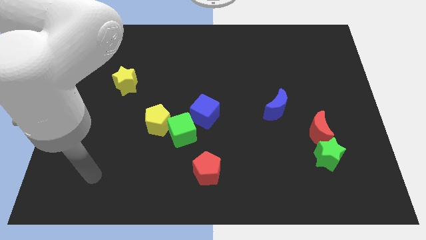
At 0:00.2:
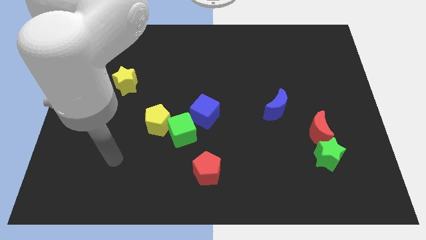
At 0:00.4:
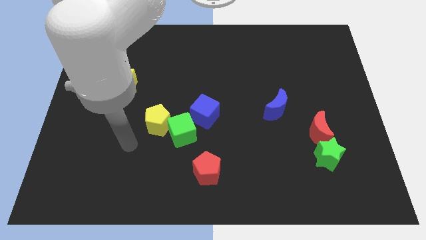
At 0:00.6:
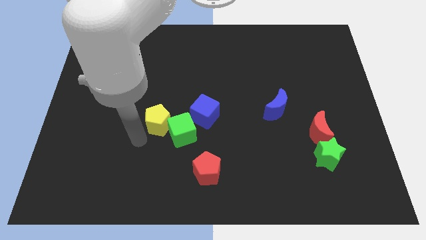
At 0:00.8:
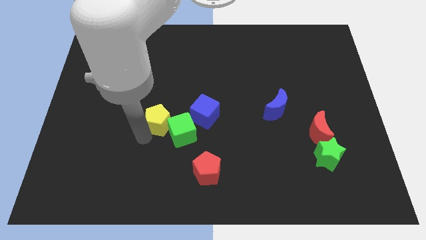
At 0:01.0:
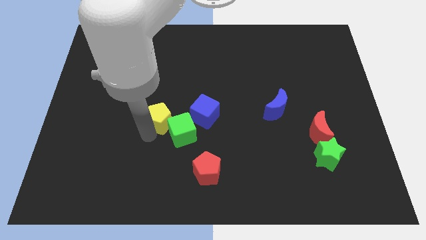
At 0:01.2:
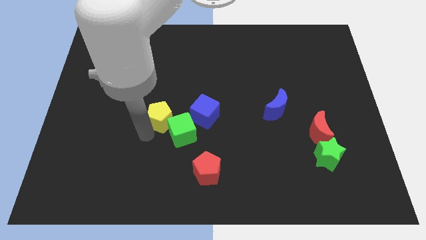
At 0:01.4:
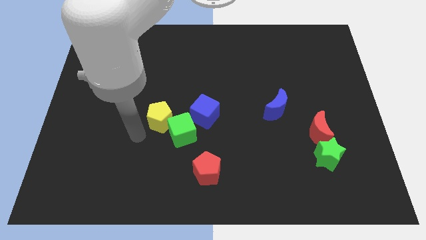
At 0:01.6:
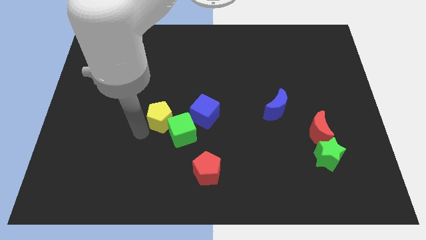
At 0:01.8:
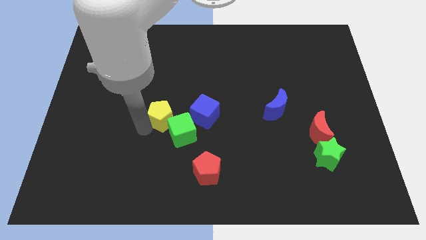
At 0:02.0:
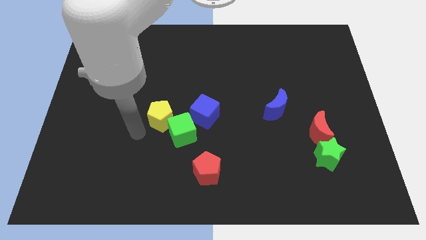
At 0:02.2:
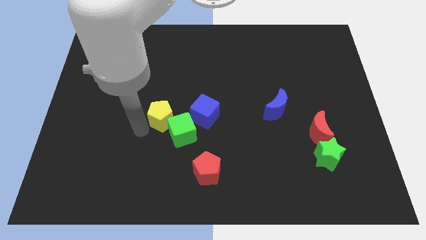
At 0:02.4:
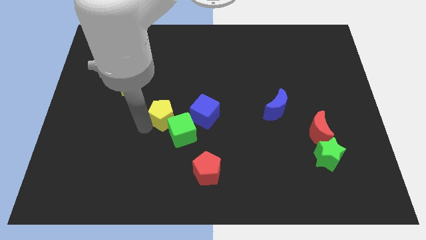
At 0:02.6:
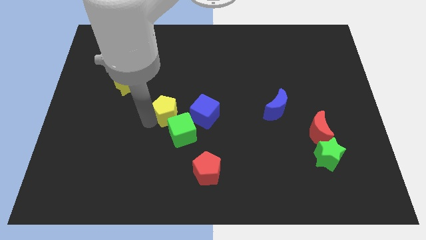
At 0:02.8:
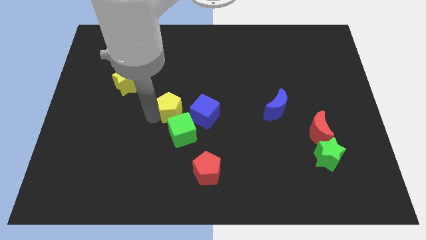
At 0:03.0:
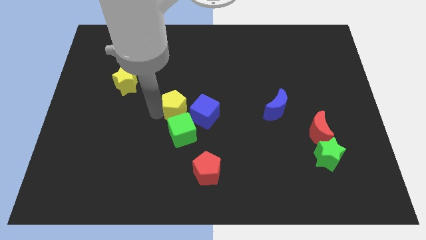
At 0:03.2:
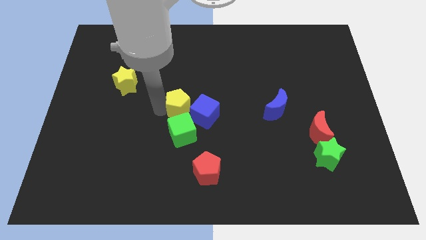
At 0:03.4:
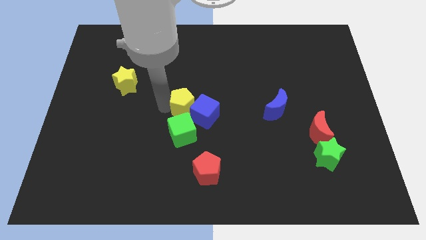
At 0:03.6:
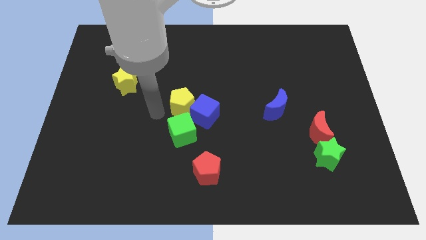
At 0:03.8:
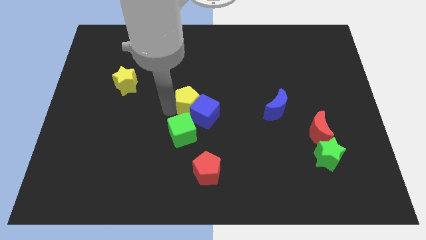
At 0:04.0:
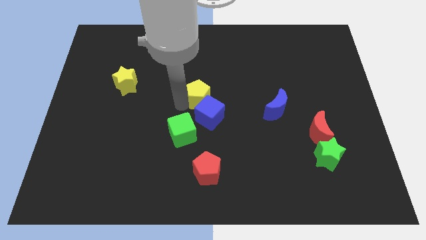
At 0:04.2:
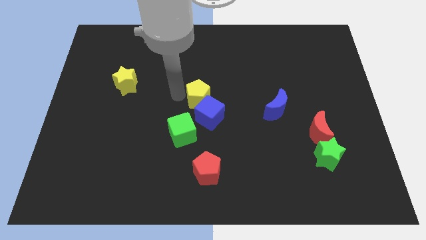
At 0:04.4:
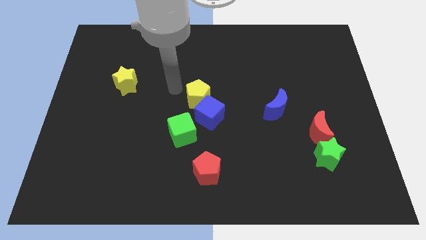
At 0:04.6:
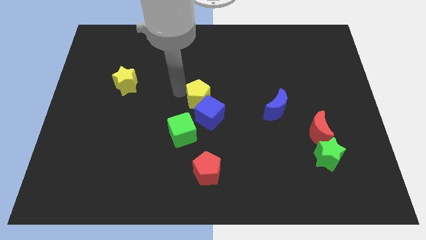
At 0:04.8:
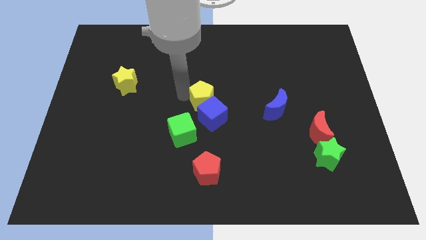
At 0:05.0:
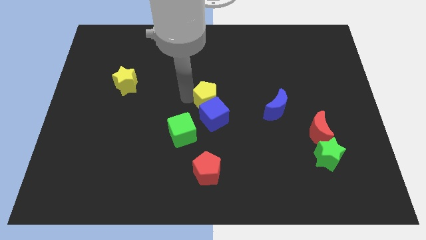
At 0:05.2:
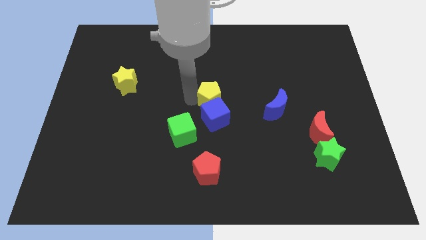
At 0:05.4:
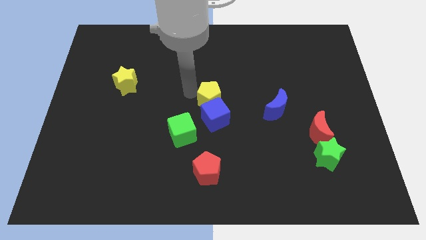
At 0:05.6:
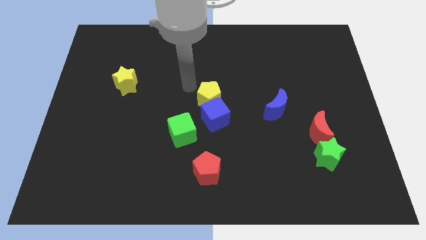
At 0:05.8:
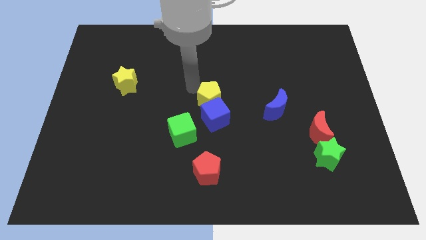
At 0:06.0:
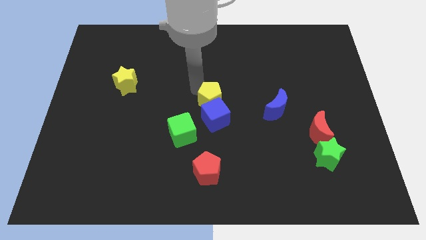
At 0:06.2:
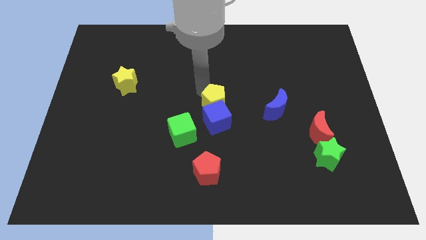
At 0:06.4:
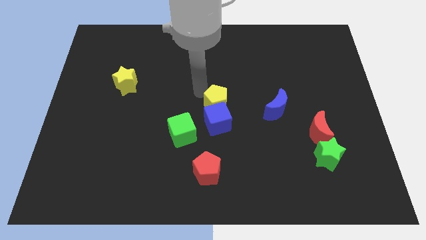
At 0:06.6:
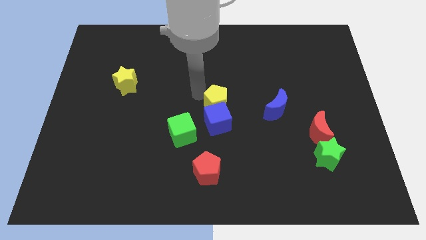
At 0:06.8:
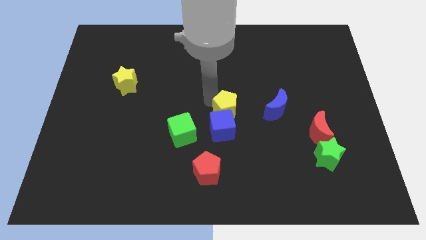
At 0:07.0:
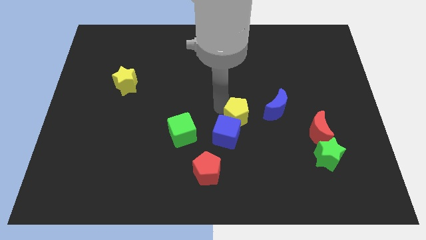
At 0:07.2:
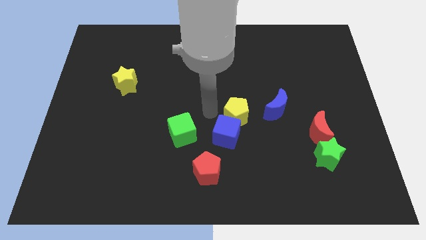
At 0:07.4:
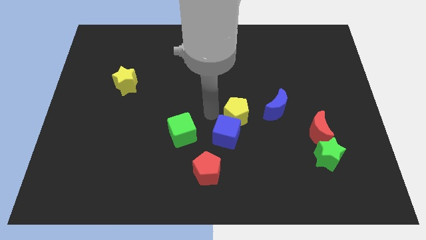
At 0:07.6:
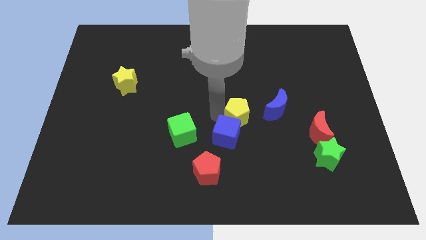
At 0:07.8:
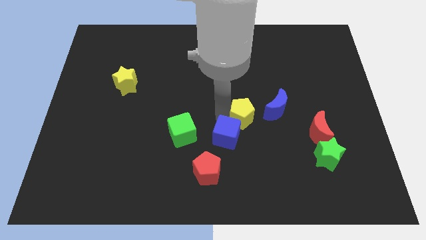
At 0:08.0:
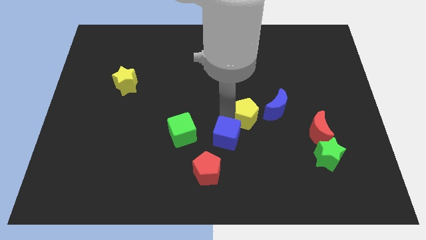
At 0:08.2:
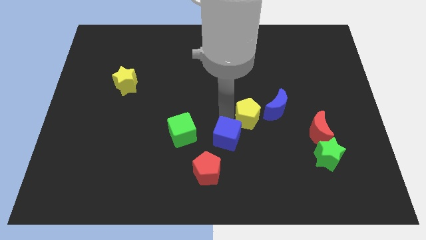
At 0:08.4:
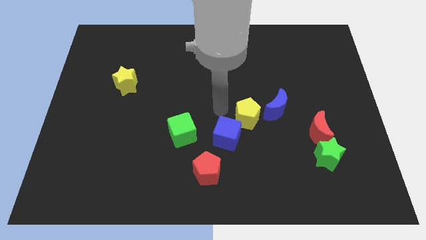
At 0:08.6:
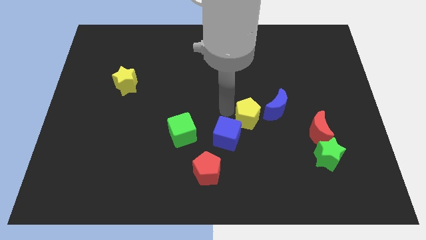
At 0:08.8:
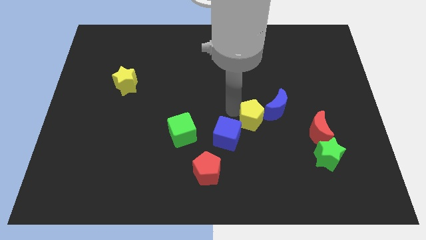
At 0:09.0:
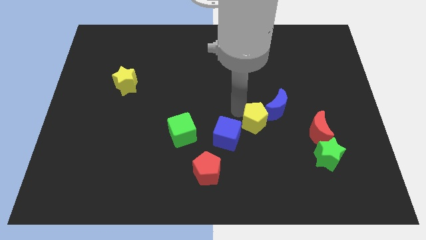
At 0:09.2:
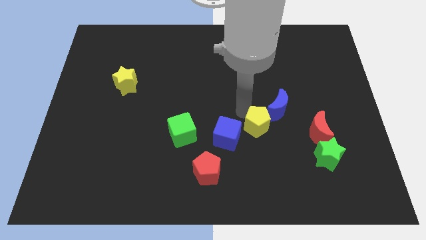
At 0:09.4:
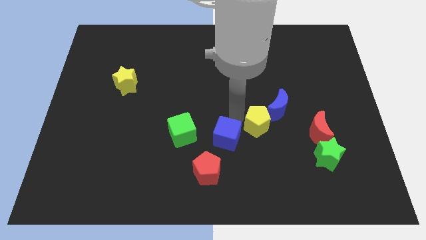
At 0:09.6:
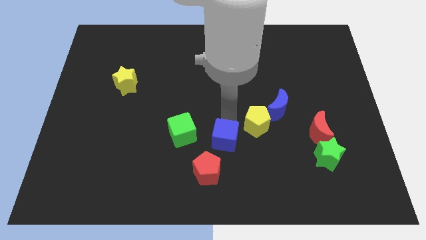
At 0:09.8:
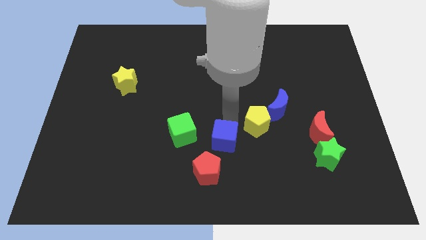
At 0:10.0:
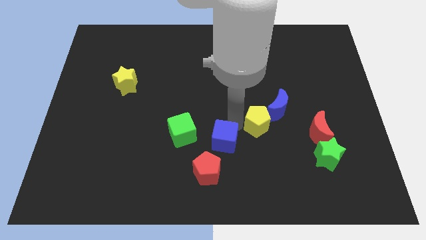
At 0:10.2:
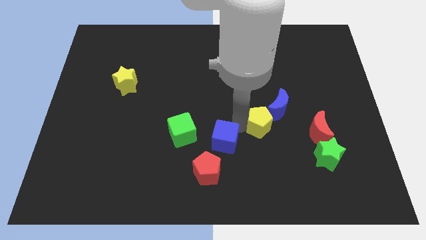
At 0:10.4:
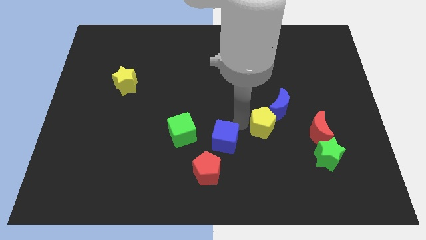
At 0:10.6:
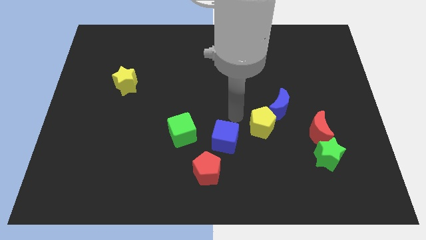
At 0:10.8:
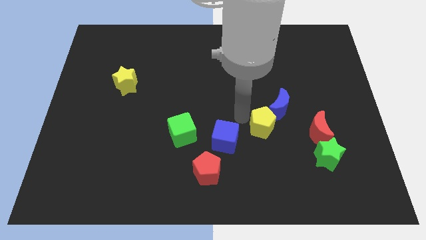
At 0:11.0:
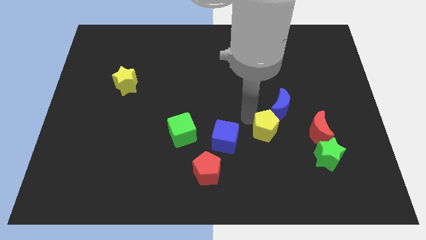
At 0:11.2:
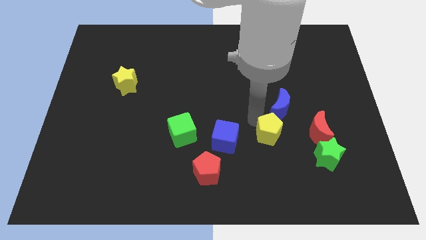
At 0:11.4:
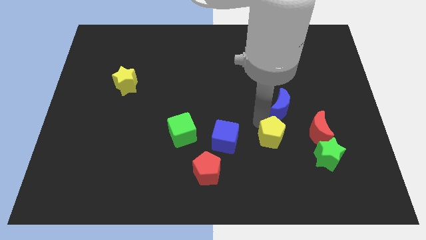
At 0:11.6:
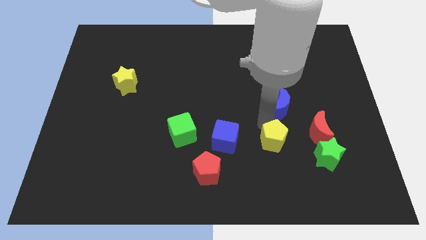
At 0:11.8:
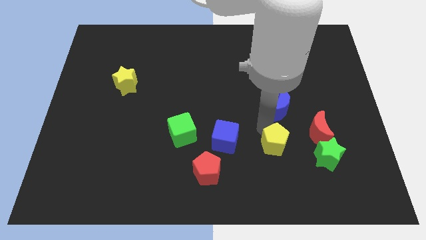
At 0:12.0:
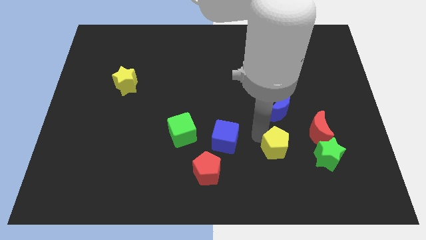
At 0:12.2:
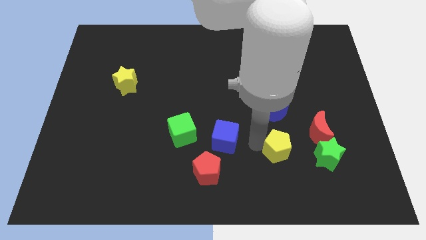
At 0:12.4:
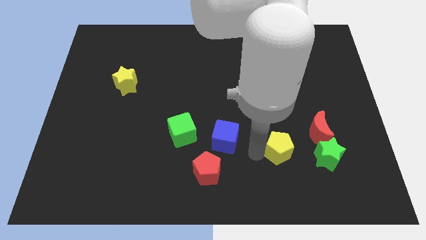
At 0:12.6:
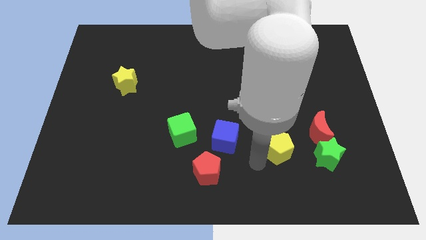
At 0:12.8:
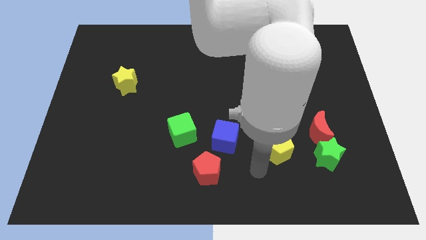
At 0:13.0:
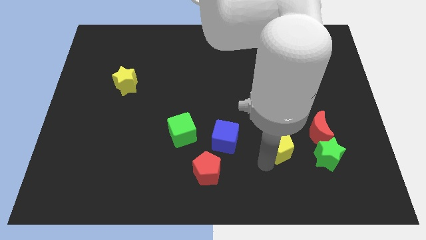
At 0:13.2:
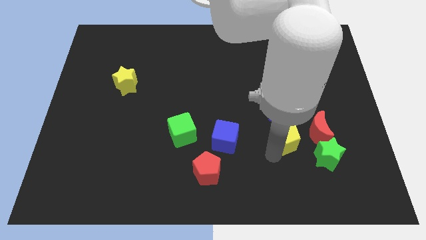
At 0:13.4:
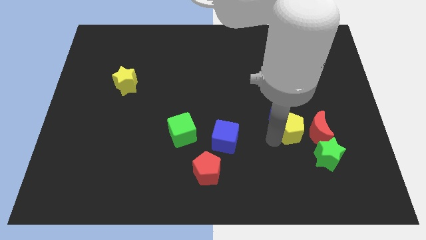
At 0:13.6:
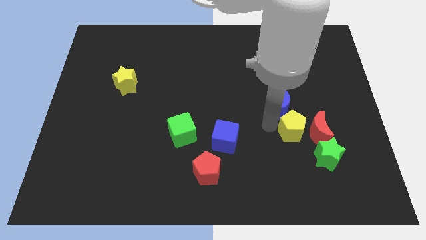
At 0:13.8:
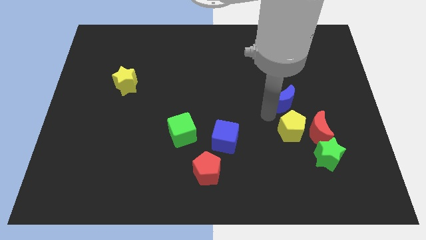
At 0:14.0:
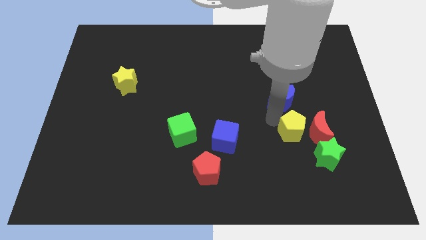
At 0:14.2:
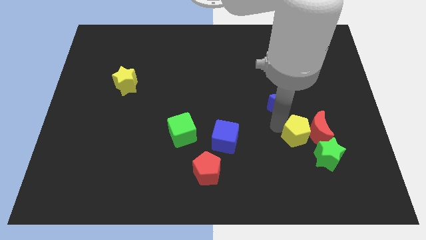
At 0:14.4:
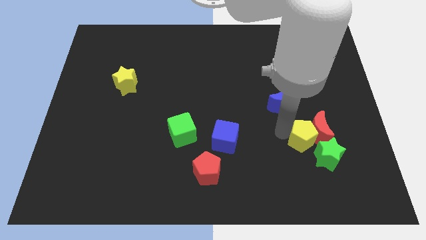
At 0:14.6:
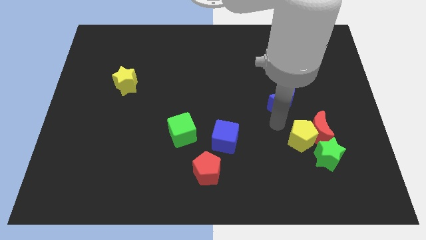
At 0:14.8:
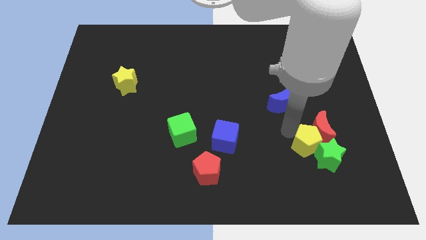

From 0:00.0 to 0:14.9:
move the yellow pentagon close to the green star
